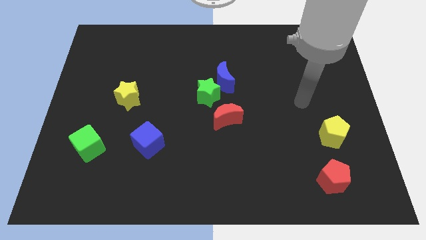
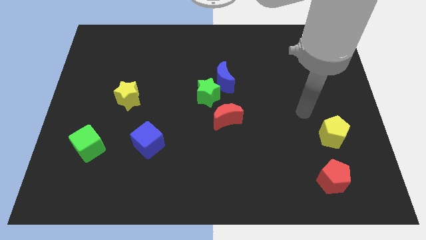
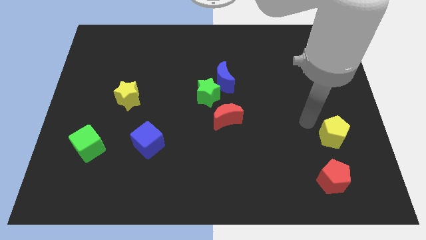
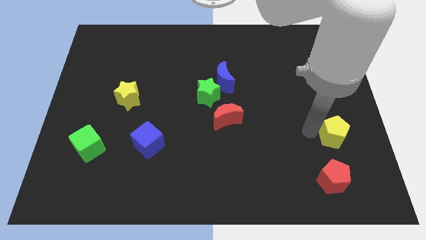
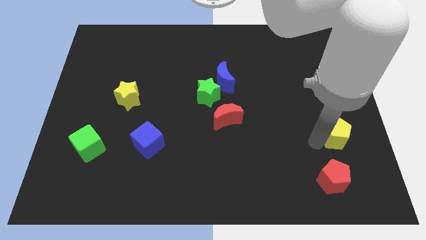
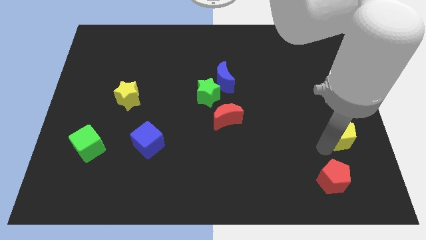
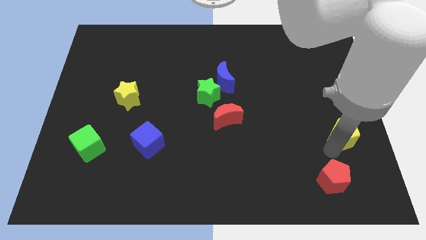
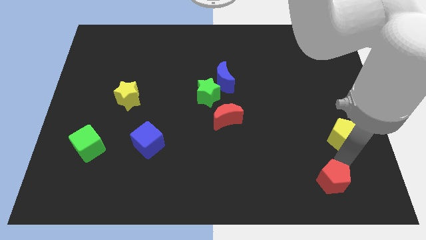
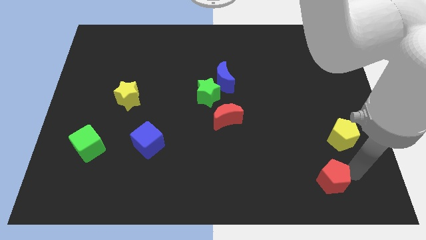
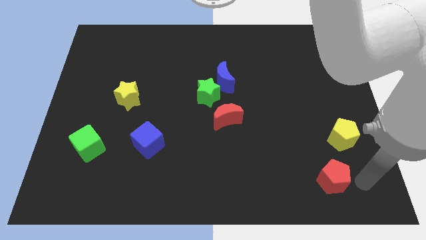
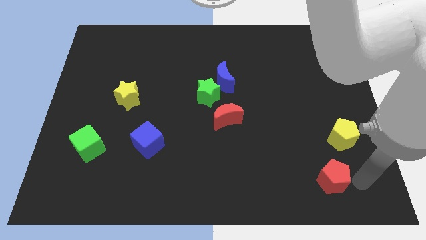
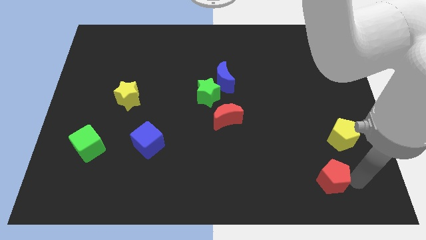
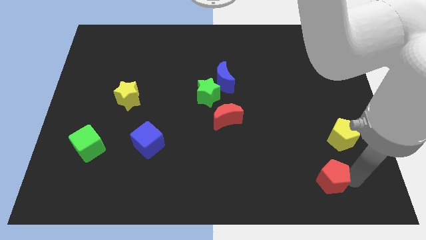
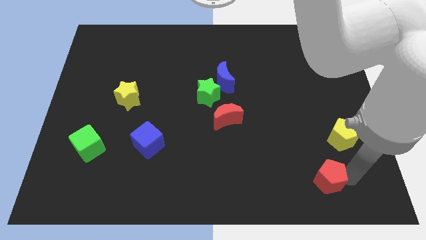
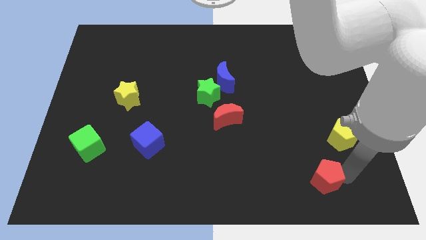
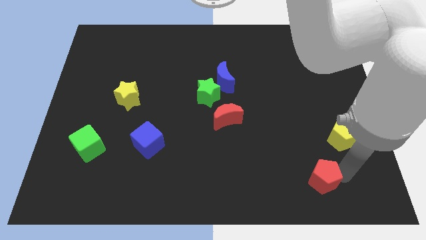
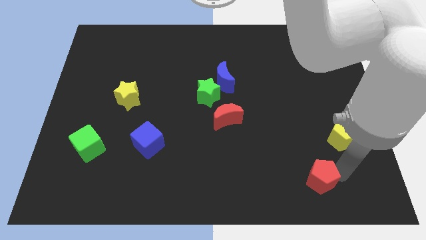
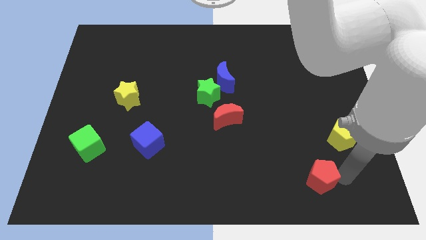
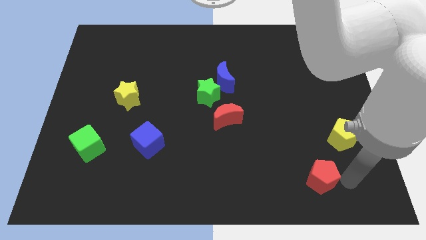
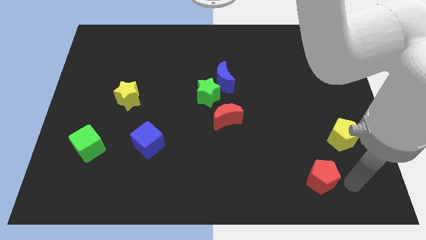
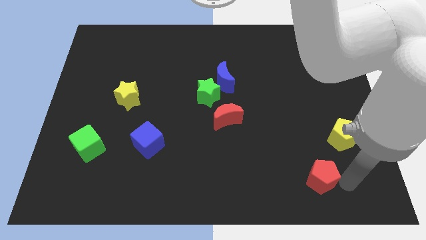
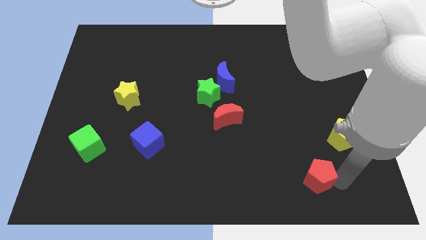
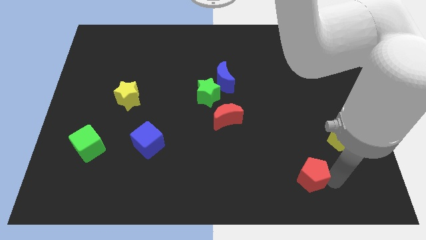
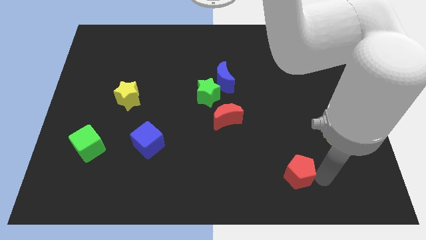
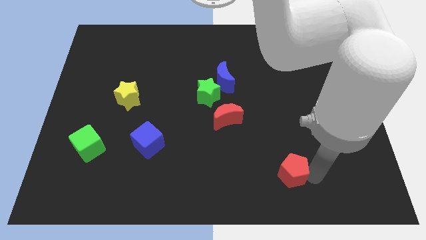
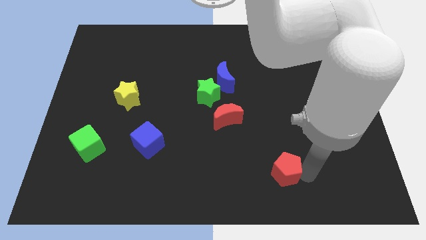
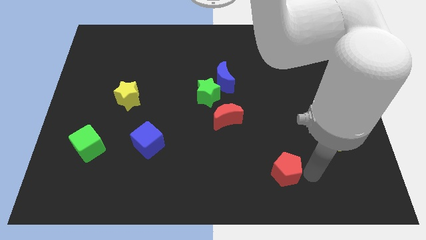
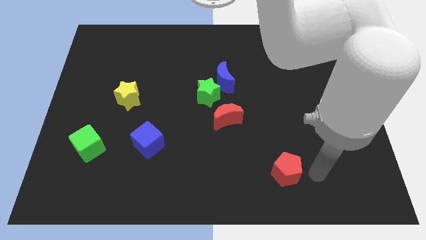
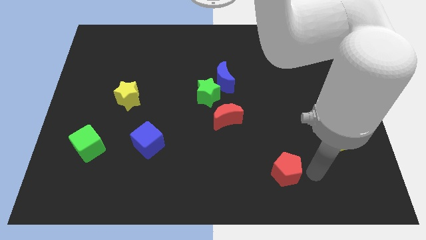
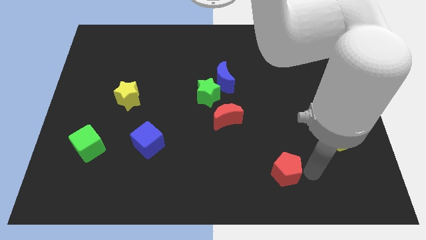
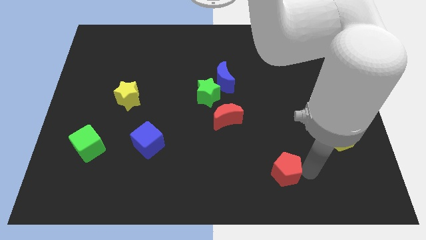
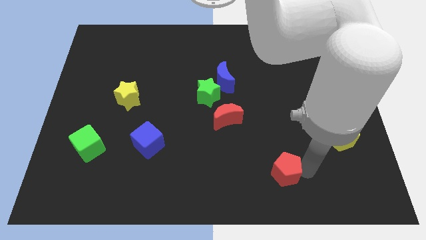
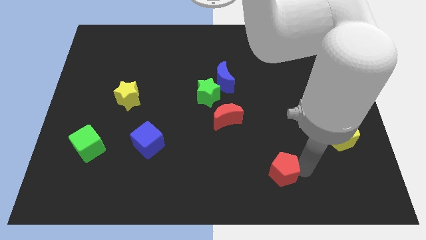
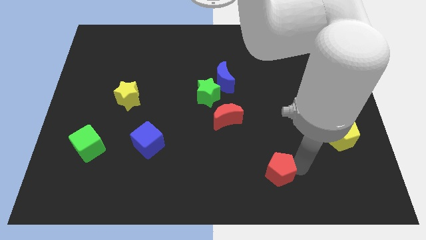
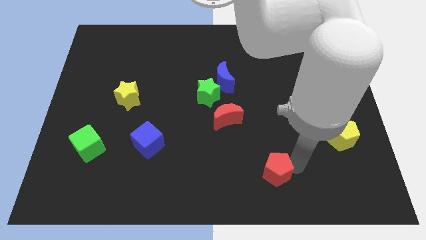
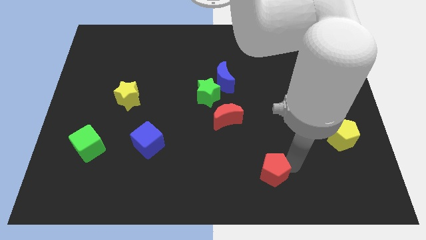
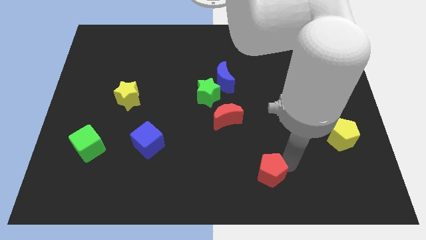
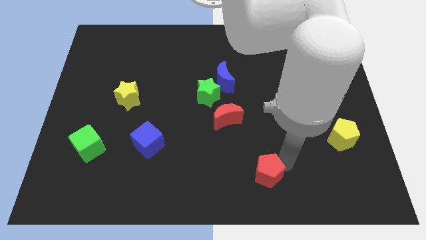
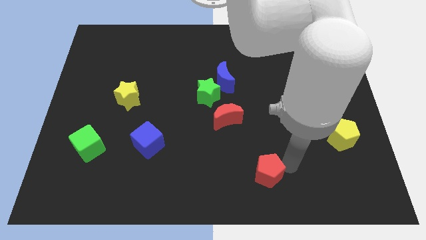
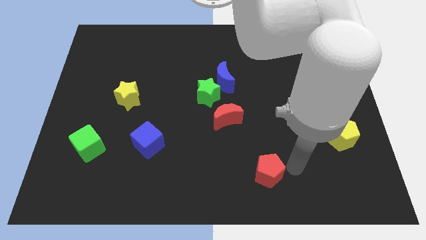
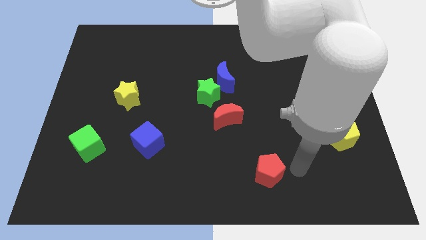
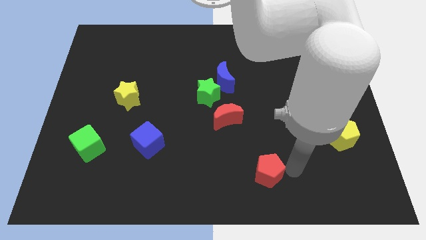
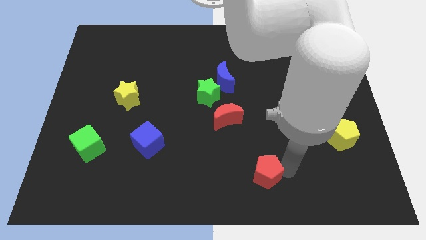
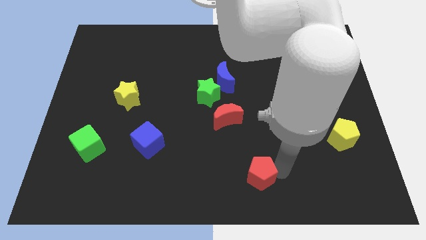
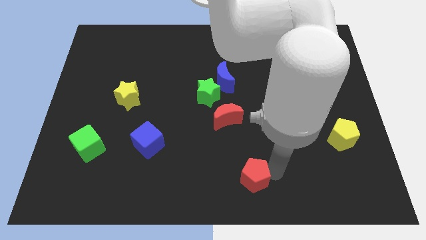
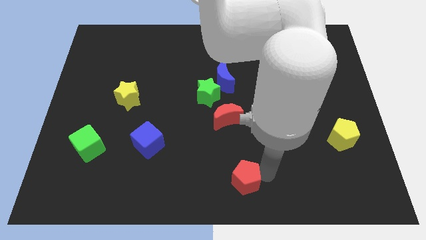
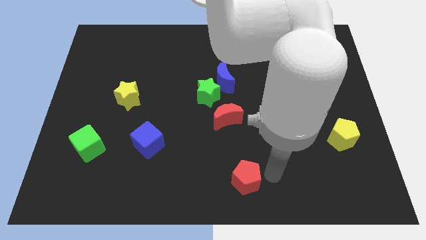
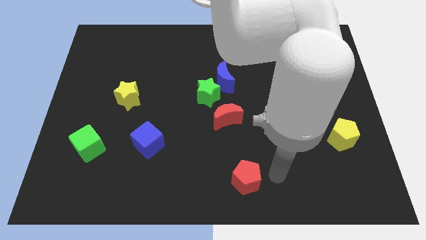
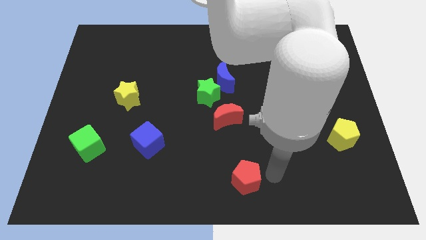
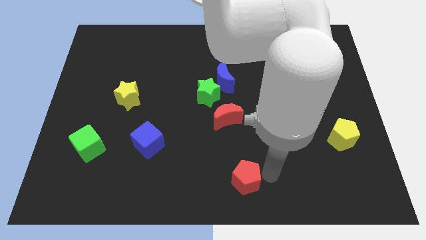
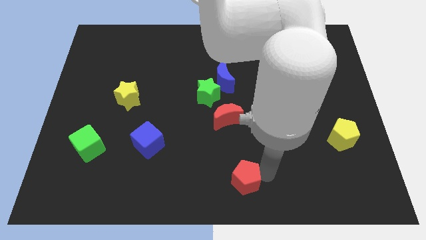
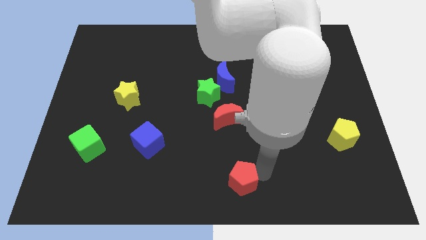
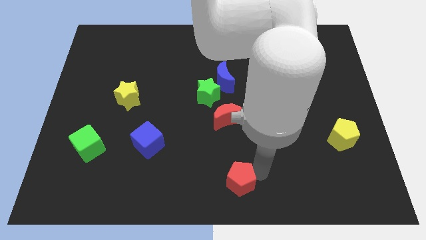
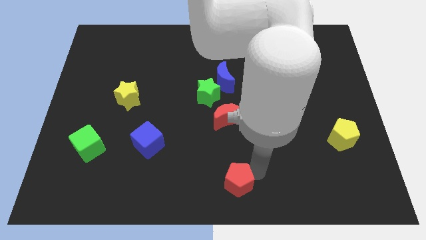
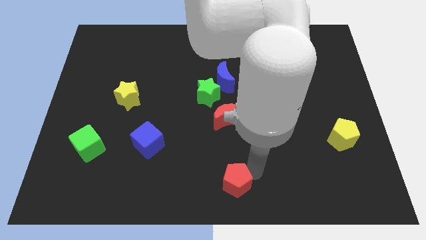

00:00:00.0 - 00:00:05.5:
push the red pentagon to the left

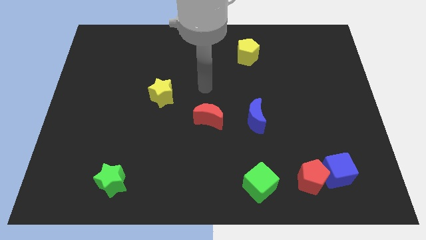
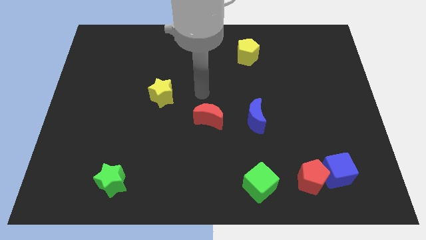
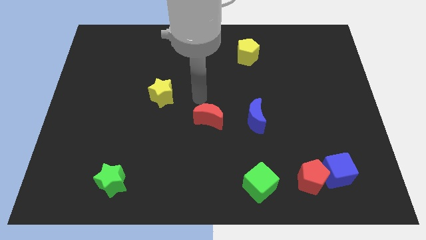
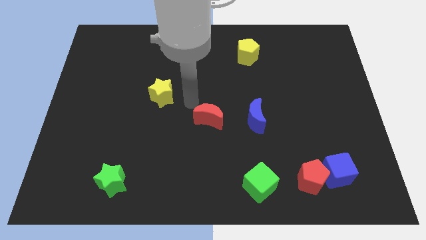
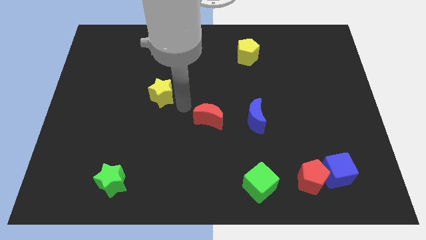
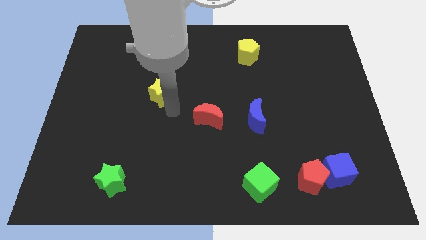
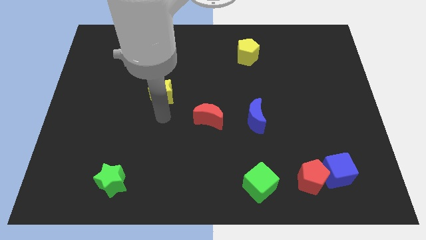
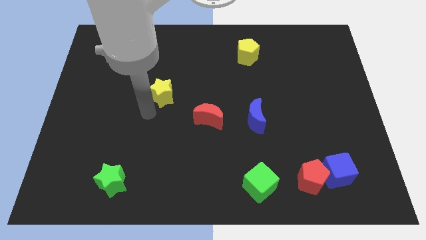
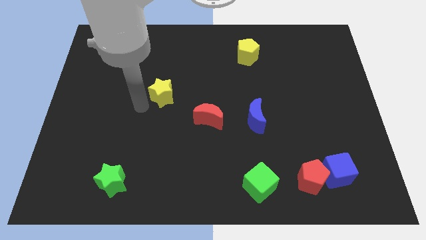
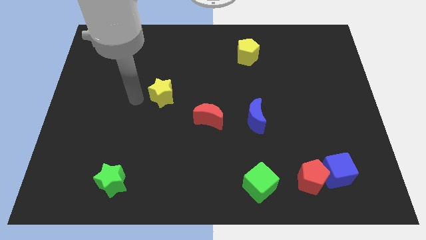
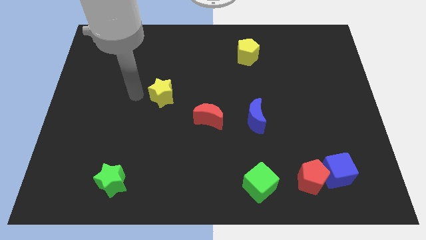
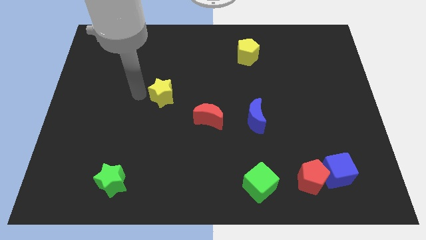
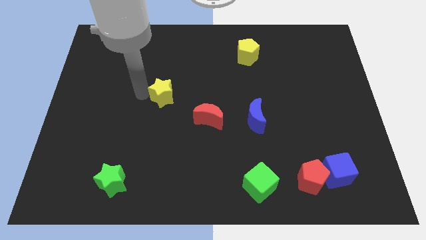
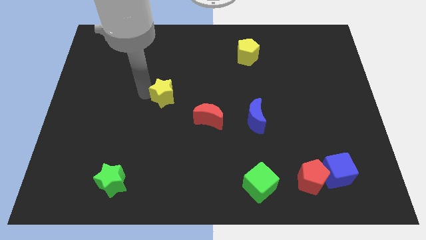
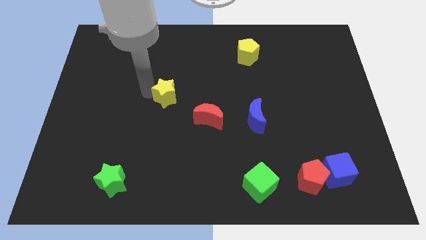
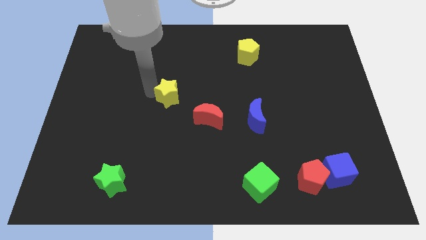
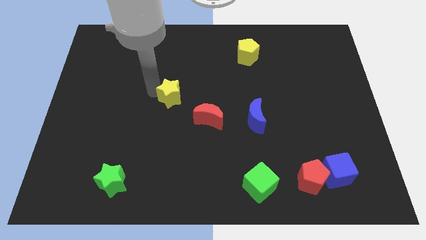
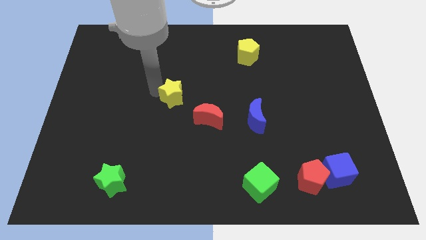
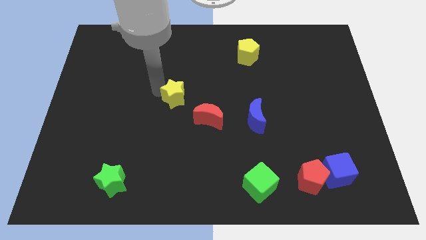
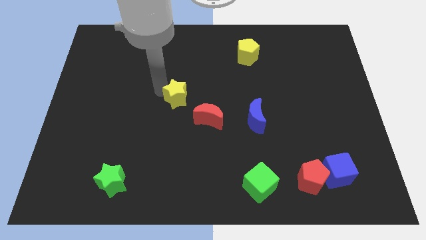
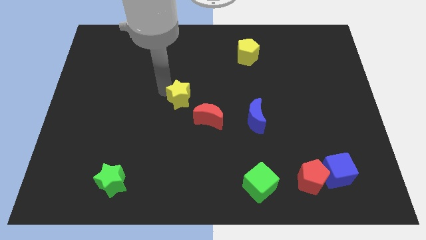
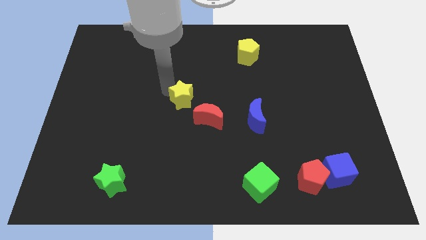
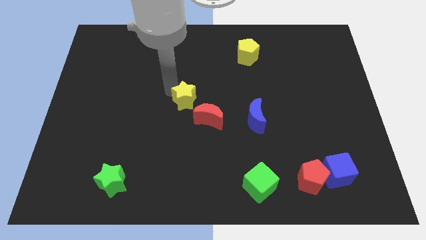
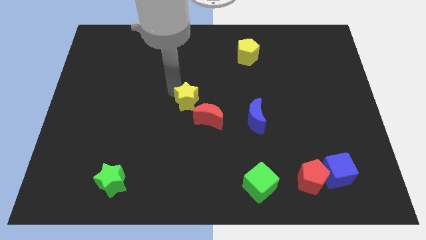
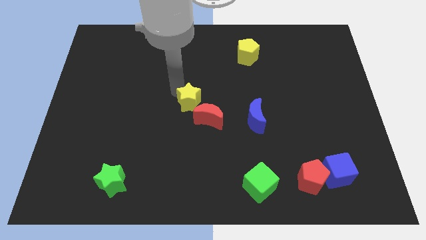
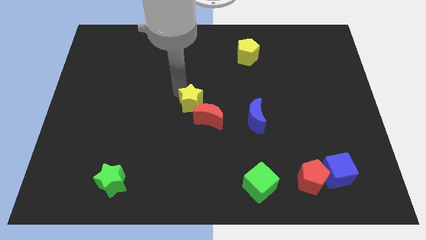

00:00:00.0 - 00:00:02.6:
move the yellow star slightly to the right
